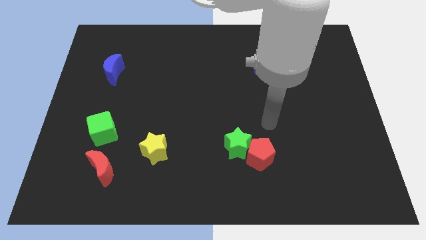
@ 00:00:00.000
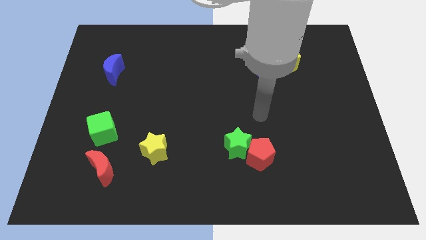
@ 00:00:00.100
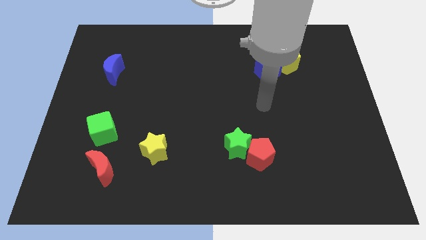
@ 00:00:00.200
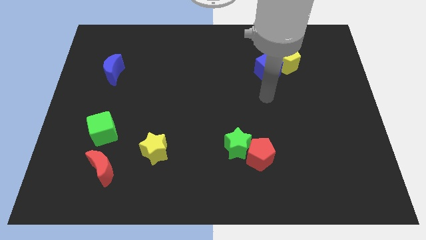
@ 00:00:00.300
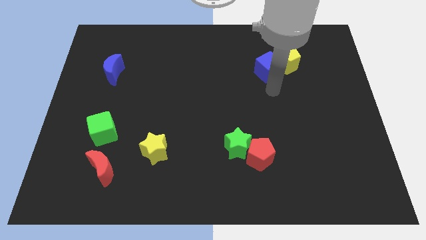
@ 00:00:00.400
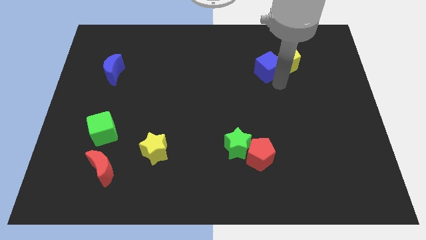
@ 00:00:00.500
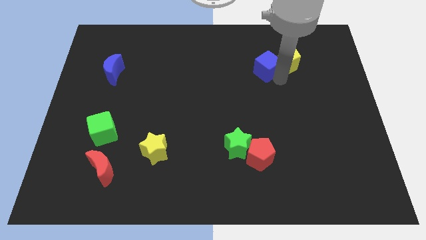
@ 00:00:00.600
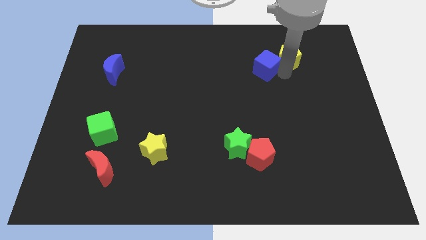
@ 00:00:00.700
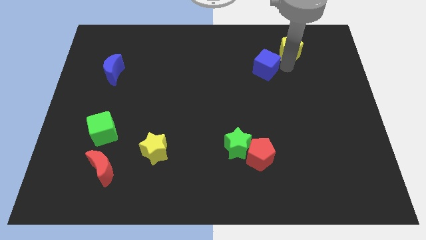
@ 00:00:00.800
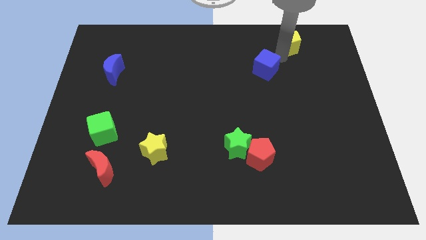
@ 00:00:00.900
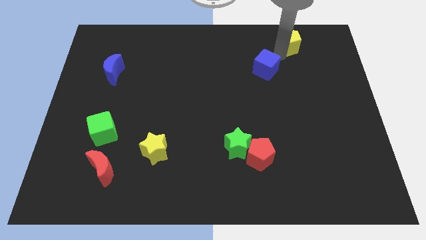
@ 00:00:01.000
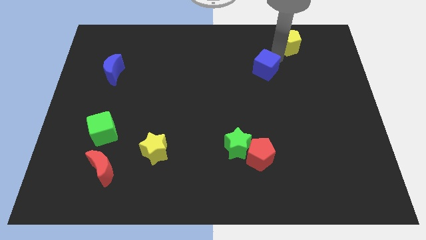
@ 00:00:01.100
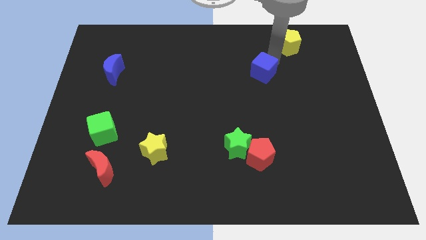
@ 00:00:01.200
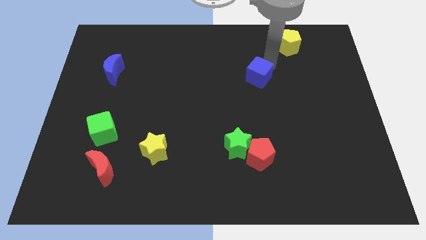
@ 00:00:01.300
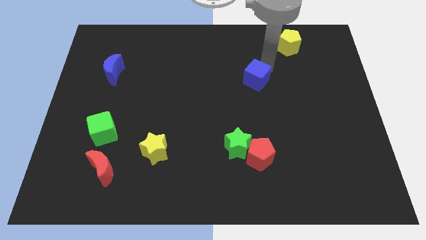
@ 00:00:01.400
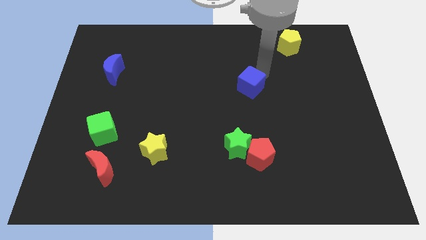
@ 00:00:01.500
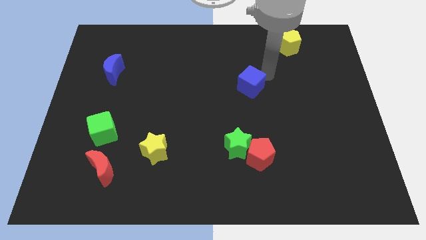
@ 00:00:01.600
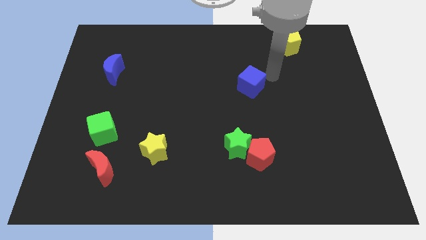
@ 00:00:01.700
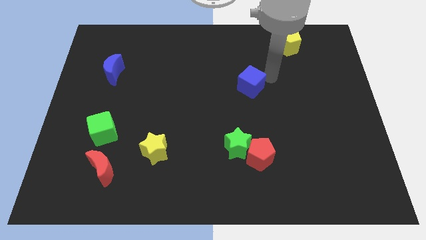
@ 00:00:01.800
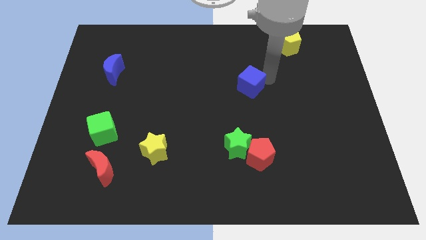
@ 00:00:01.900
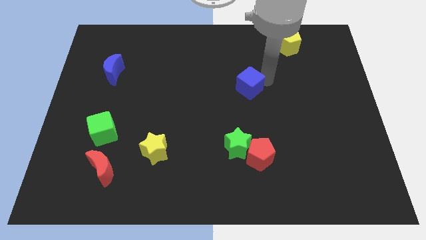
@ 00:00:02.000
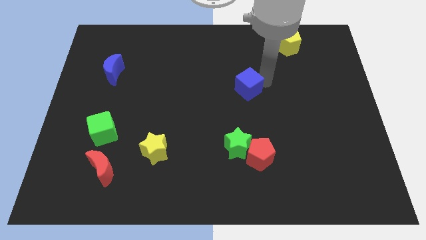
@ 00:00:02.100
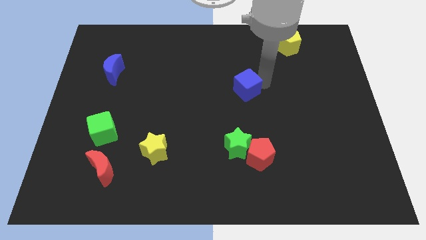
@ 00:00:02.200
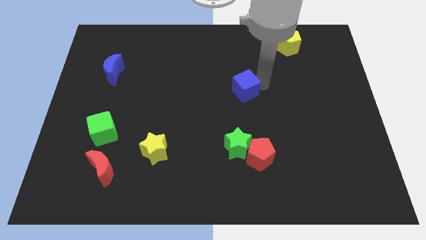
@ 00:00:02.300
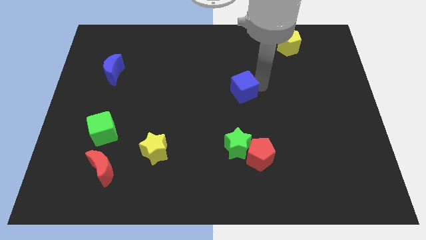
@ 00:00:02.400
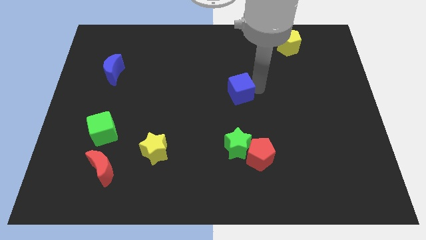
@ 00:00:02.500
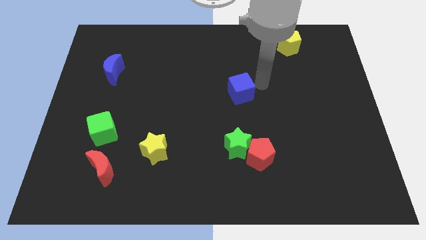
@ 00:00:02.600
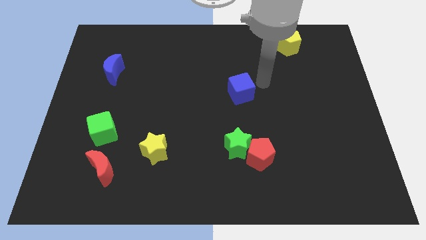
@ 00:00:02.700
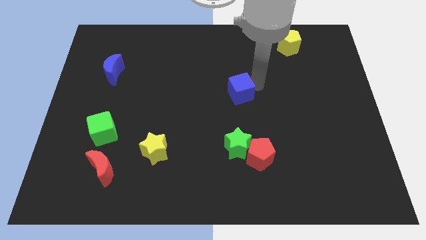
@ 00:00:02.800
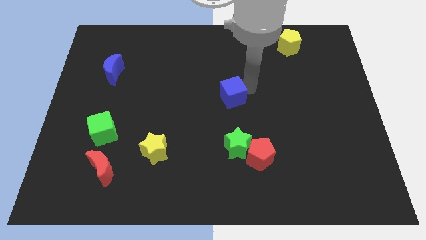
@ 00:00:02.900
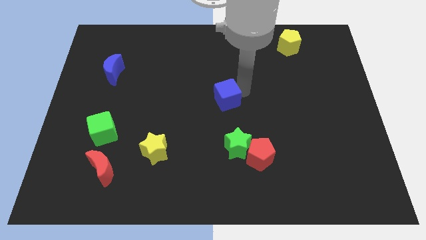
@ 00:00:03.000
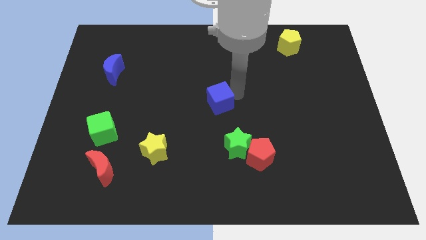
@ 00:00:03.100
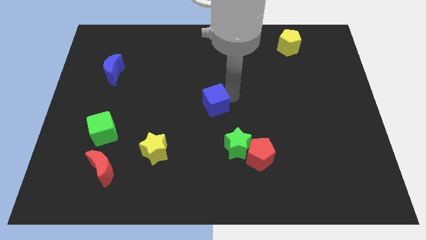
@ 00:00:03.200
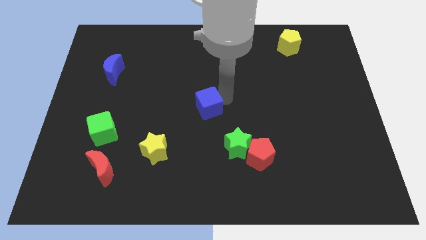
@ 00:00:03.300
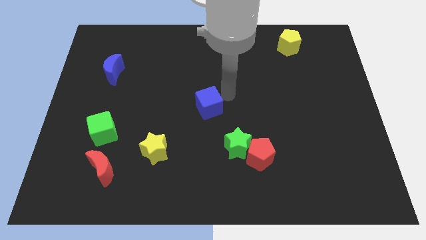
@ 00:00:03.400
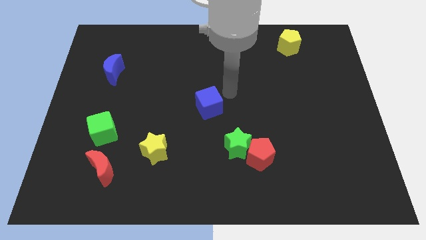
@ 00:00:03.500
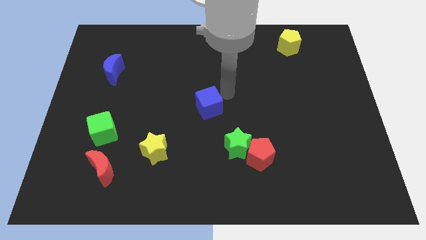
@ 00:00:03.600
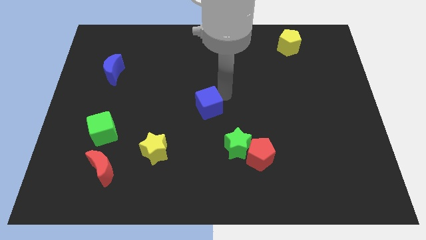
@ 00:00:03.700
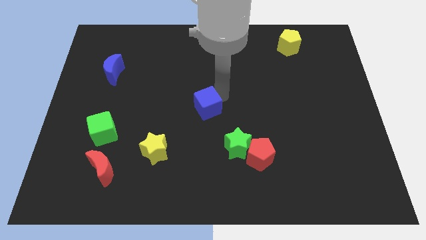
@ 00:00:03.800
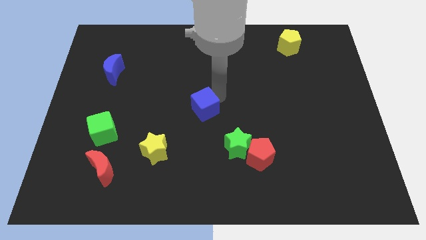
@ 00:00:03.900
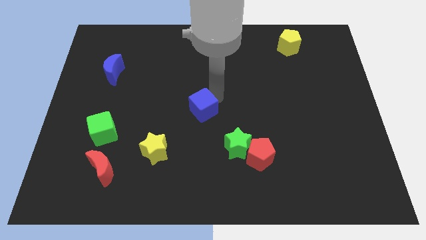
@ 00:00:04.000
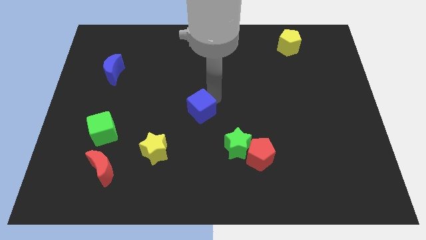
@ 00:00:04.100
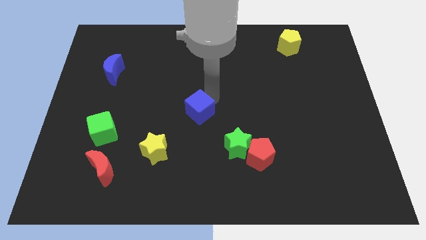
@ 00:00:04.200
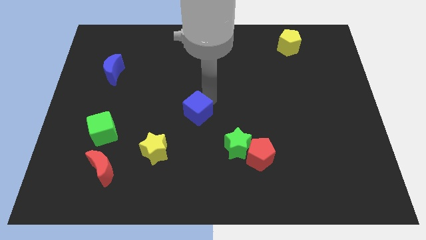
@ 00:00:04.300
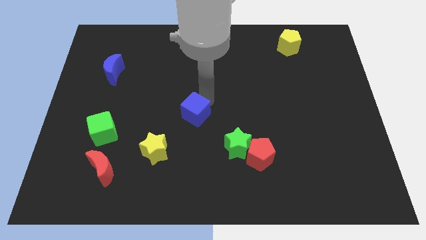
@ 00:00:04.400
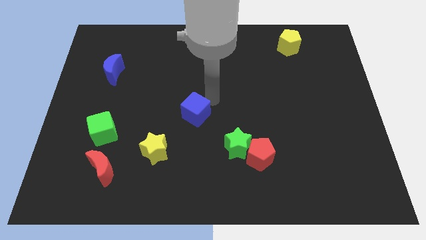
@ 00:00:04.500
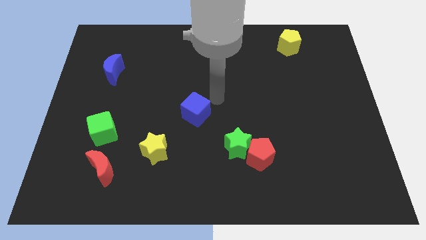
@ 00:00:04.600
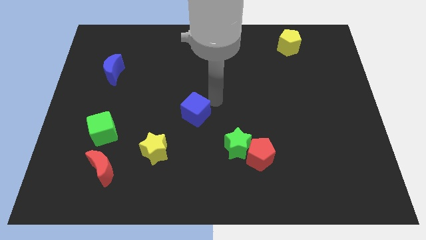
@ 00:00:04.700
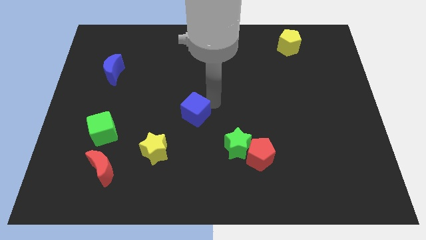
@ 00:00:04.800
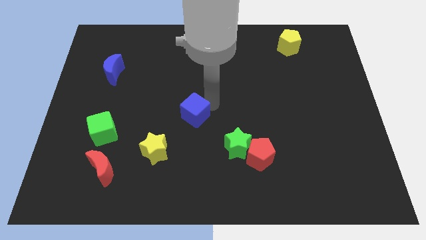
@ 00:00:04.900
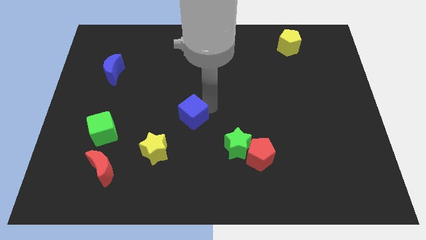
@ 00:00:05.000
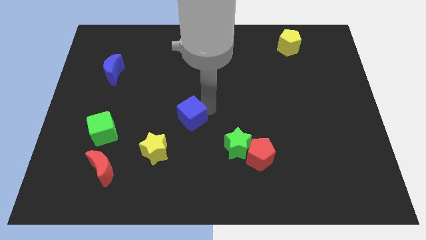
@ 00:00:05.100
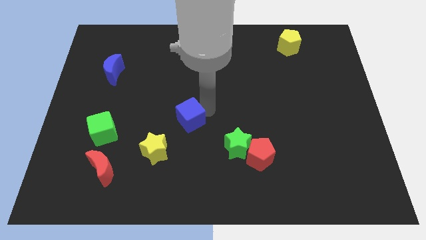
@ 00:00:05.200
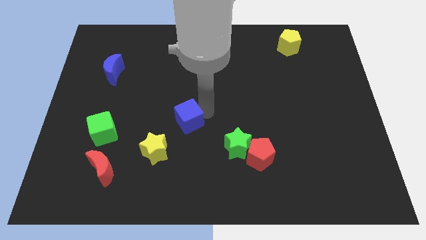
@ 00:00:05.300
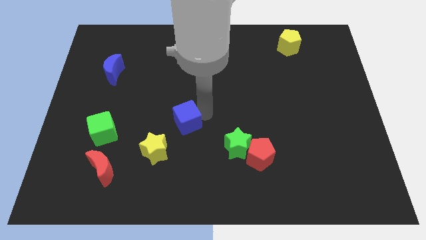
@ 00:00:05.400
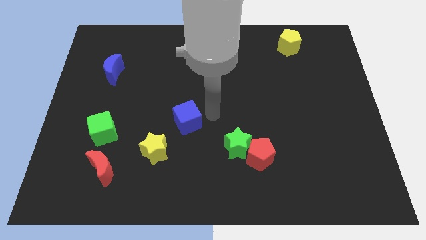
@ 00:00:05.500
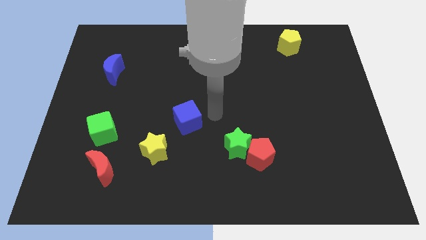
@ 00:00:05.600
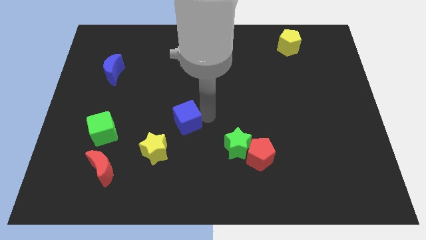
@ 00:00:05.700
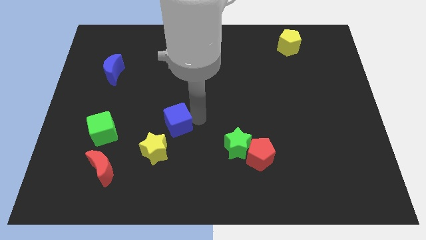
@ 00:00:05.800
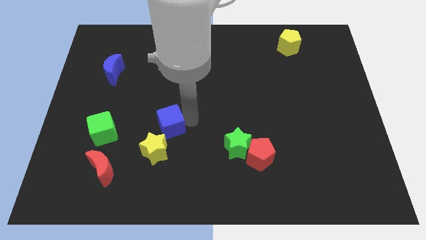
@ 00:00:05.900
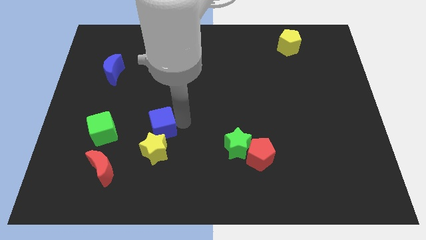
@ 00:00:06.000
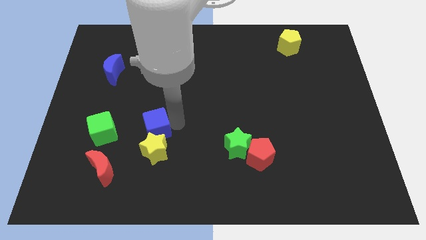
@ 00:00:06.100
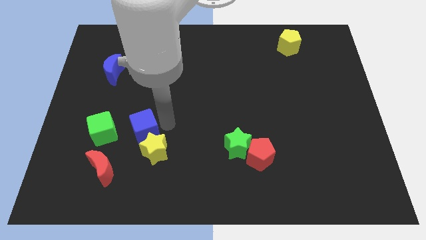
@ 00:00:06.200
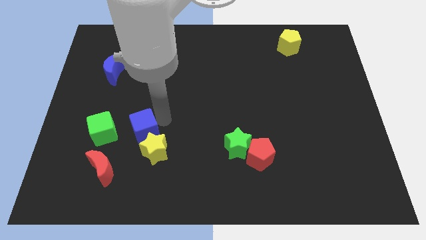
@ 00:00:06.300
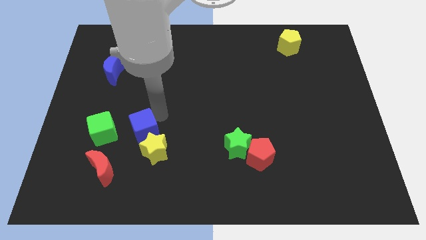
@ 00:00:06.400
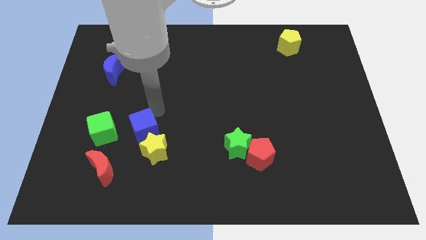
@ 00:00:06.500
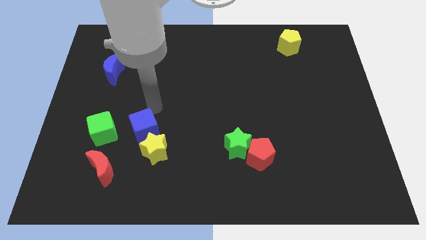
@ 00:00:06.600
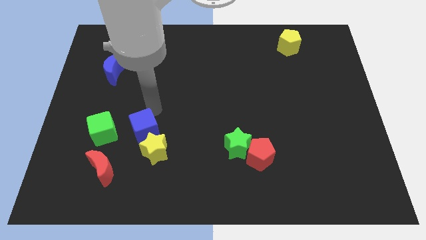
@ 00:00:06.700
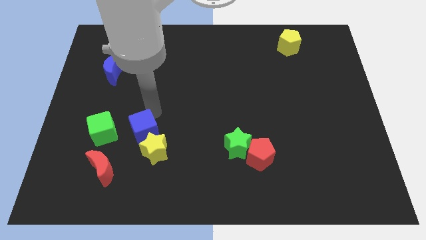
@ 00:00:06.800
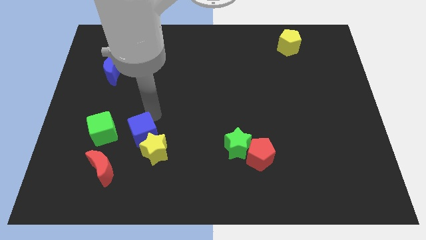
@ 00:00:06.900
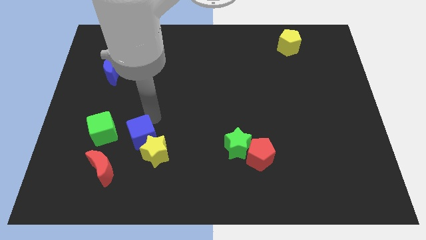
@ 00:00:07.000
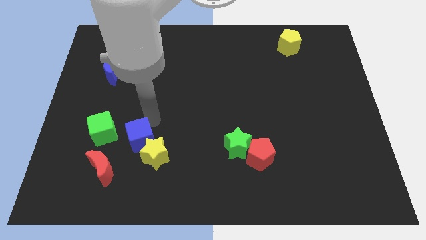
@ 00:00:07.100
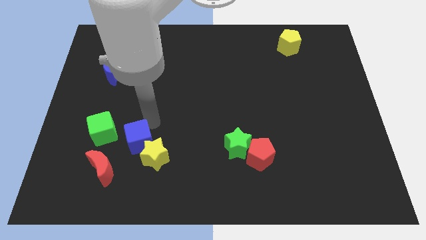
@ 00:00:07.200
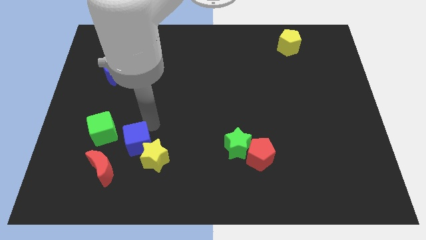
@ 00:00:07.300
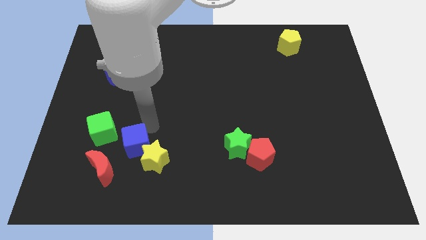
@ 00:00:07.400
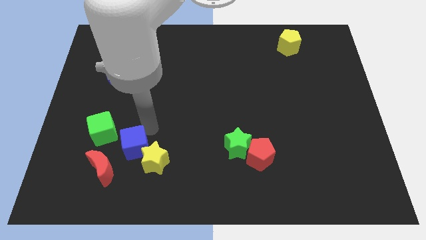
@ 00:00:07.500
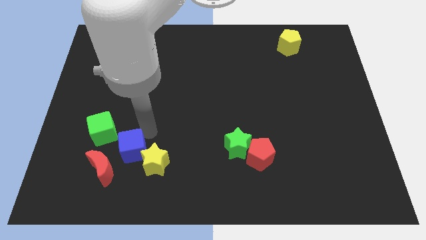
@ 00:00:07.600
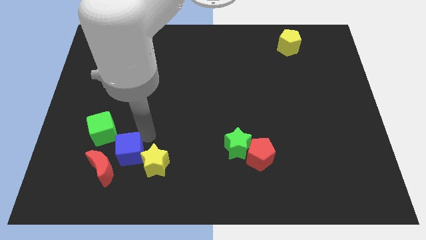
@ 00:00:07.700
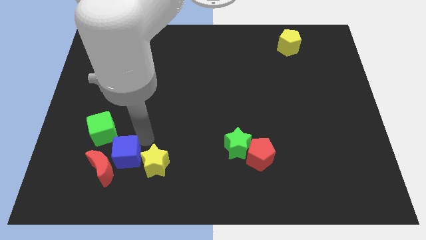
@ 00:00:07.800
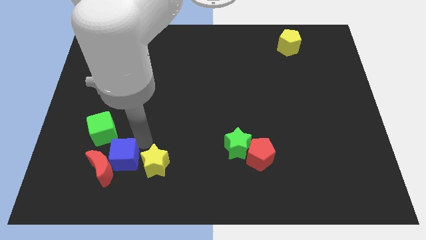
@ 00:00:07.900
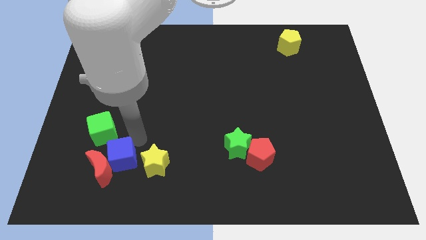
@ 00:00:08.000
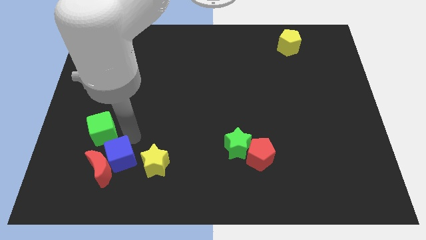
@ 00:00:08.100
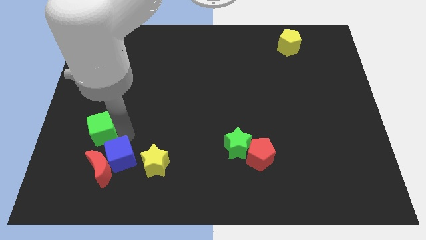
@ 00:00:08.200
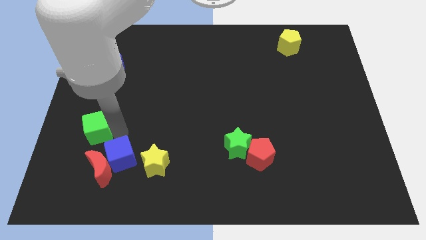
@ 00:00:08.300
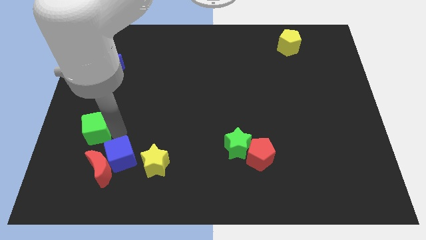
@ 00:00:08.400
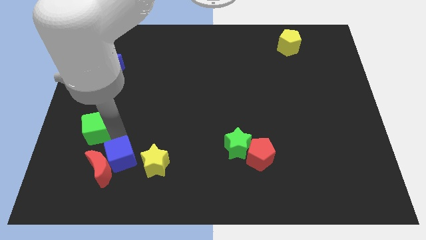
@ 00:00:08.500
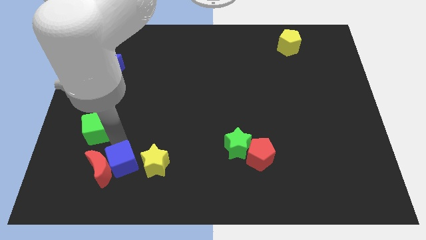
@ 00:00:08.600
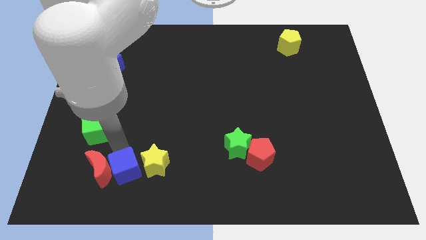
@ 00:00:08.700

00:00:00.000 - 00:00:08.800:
push the blue cube to the bottom left of the yellow star
